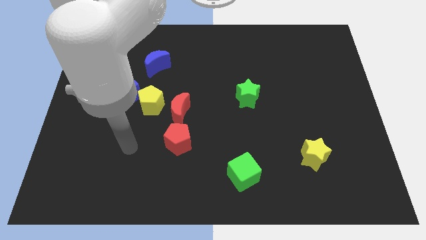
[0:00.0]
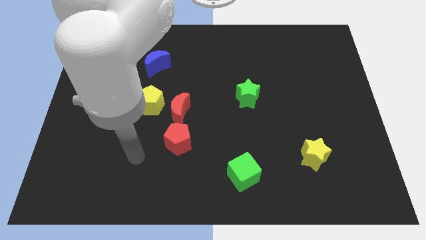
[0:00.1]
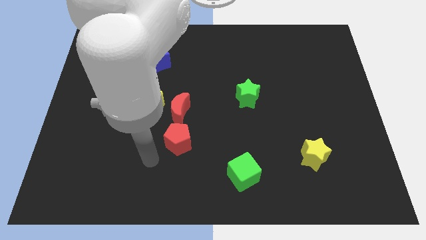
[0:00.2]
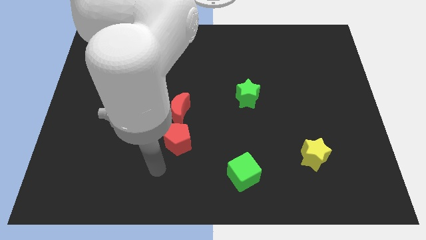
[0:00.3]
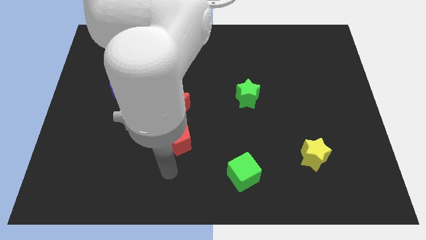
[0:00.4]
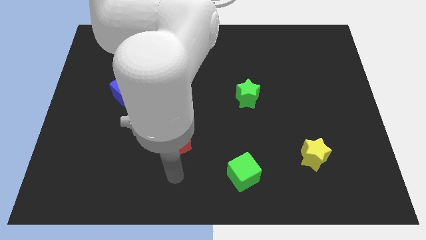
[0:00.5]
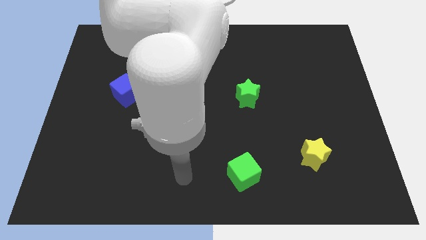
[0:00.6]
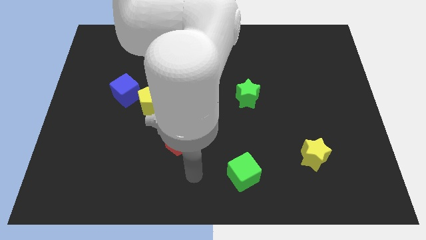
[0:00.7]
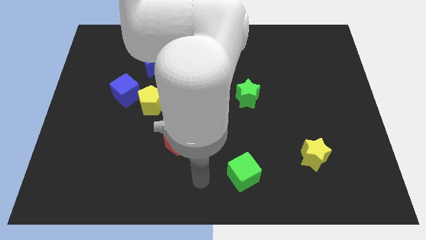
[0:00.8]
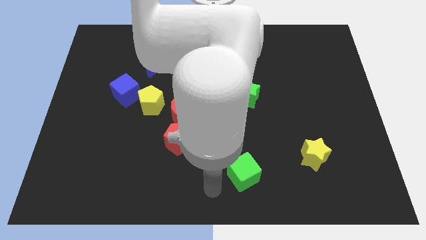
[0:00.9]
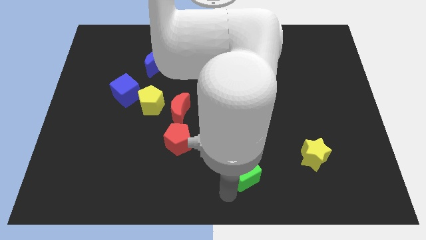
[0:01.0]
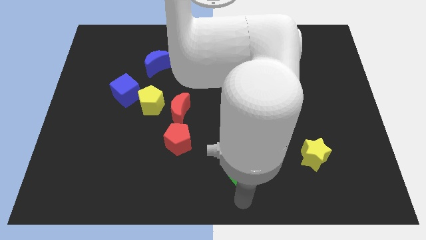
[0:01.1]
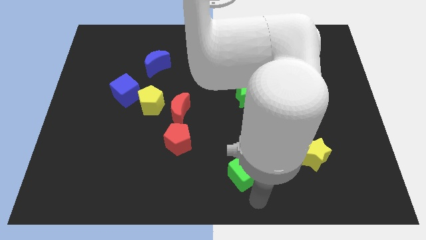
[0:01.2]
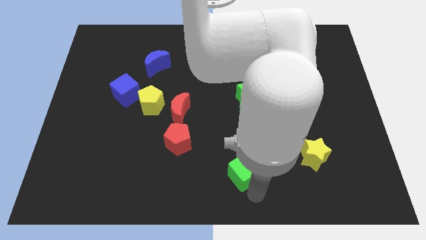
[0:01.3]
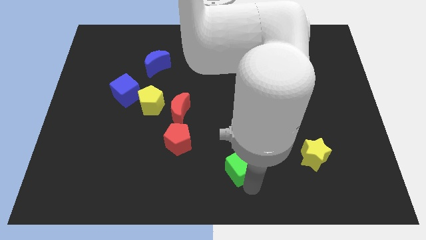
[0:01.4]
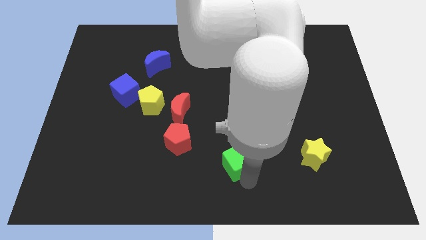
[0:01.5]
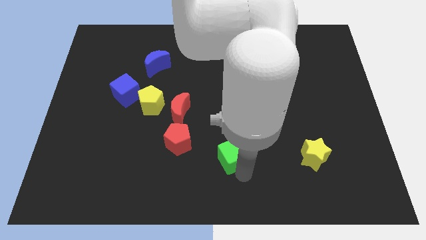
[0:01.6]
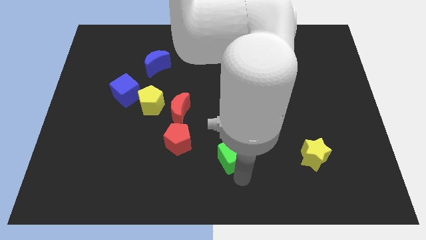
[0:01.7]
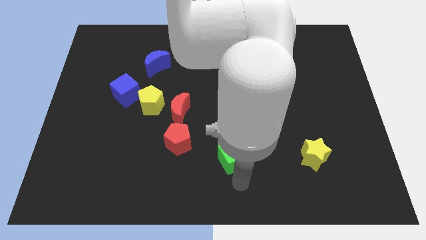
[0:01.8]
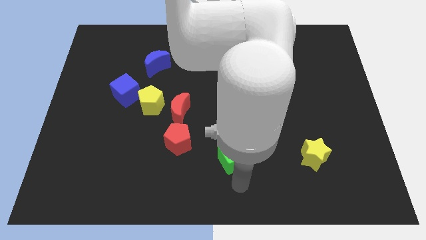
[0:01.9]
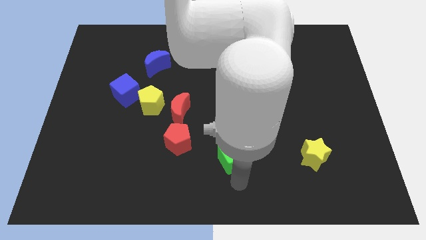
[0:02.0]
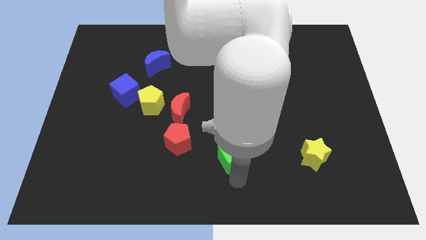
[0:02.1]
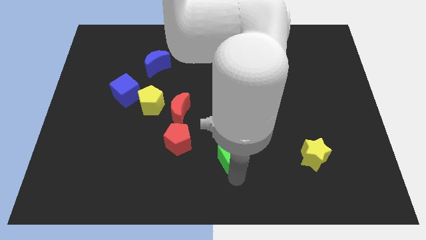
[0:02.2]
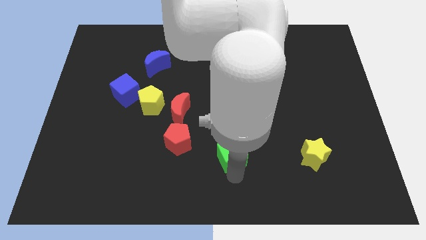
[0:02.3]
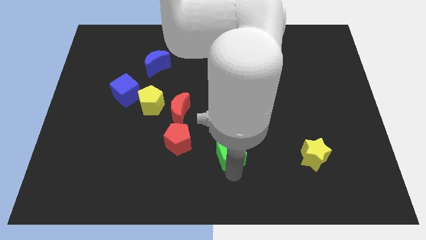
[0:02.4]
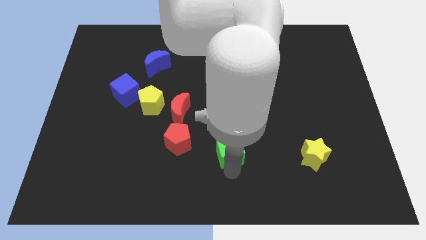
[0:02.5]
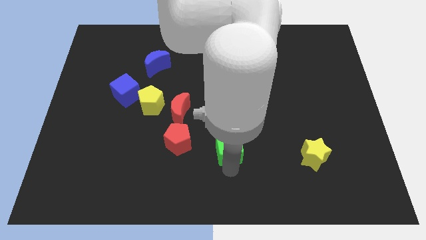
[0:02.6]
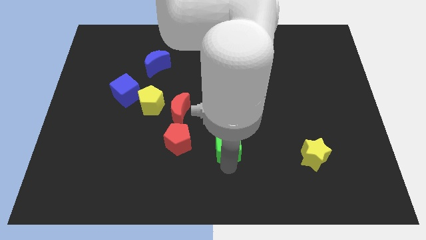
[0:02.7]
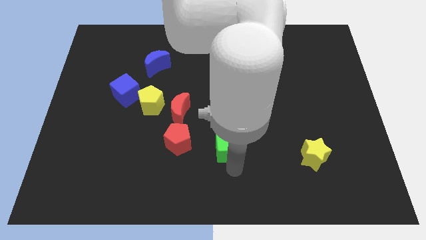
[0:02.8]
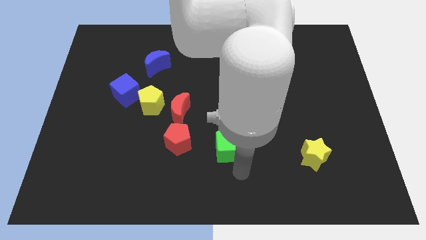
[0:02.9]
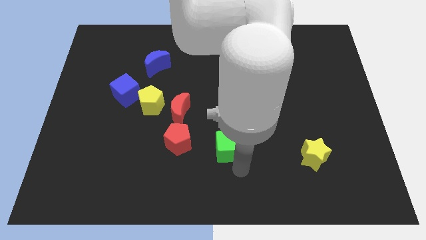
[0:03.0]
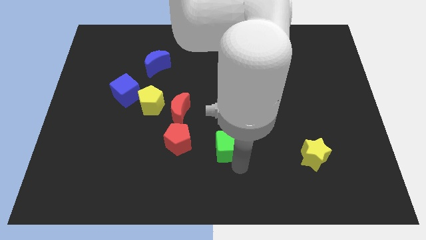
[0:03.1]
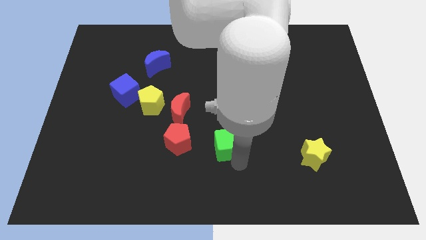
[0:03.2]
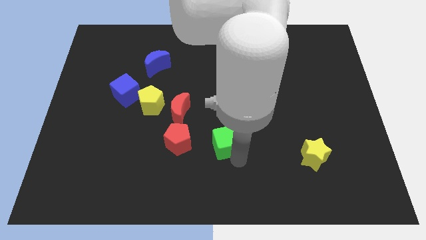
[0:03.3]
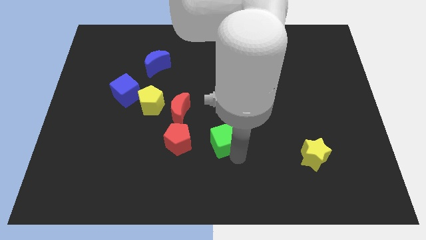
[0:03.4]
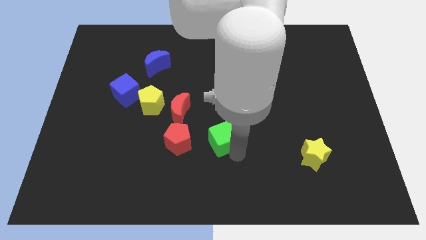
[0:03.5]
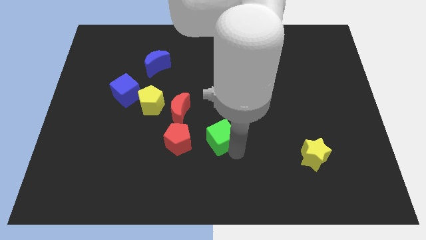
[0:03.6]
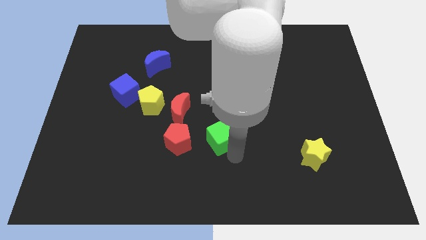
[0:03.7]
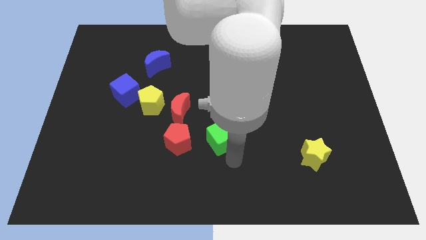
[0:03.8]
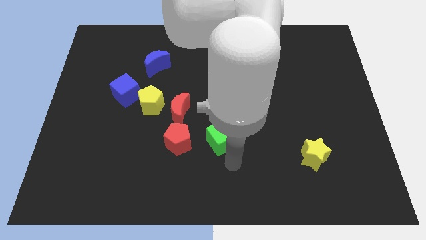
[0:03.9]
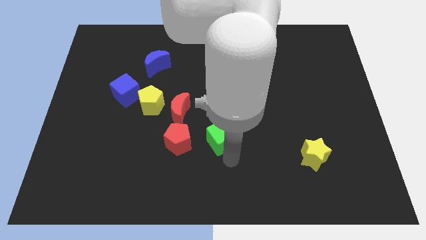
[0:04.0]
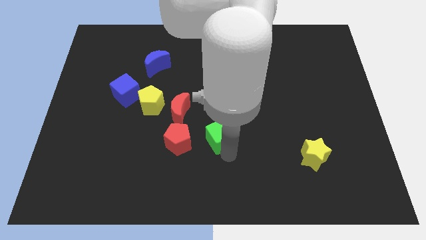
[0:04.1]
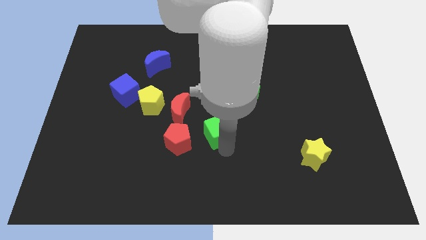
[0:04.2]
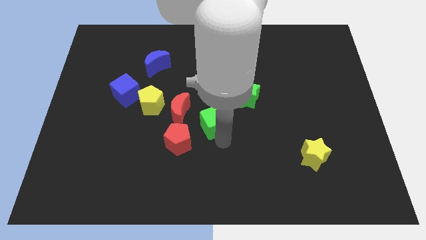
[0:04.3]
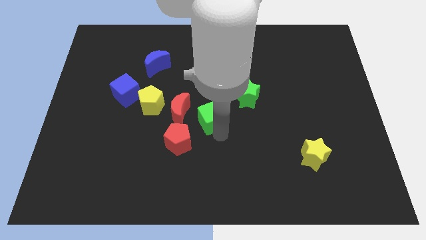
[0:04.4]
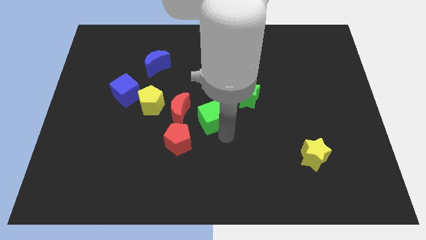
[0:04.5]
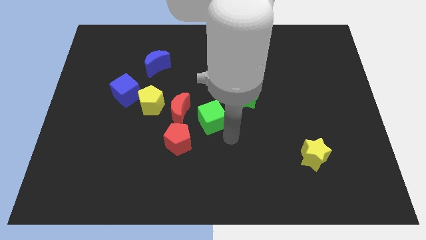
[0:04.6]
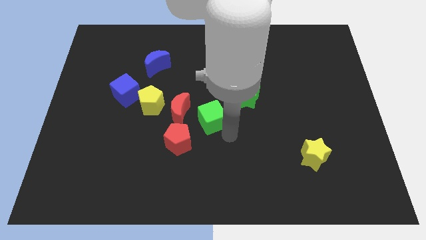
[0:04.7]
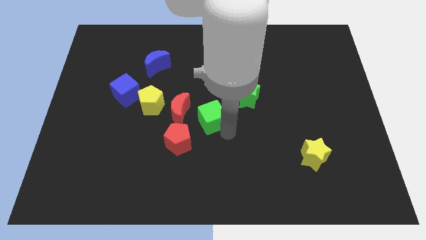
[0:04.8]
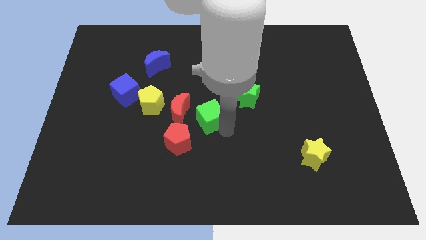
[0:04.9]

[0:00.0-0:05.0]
put the green cube just right of the yellow pentagon

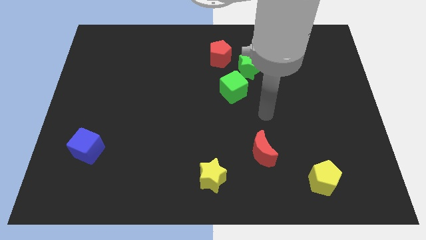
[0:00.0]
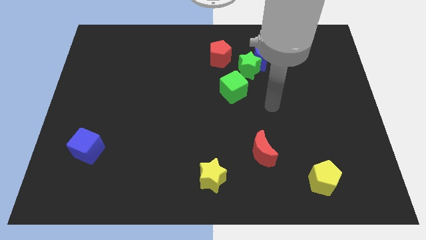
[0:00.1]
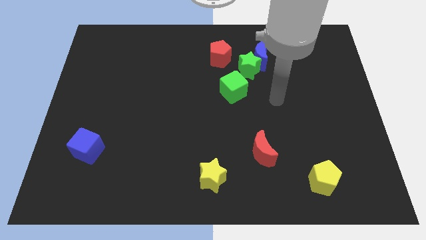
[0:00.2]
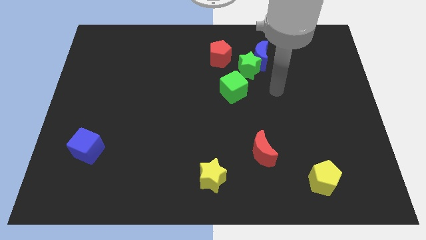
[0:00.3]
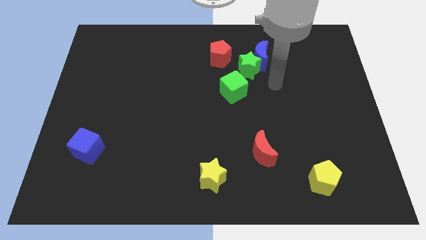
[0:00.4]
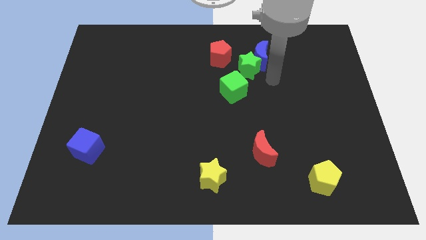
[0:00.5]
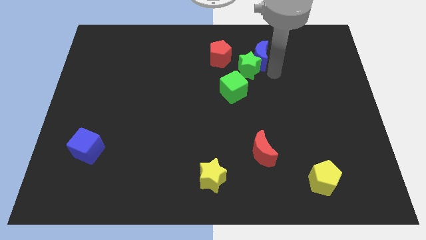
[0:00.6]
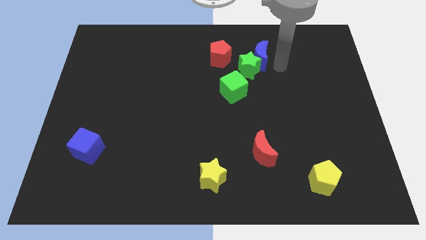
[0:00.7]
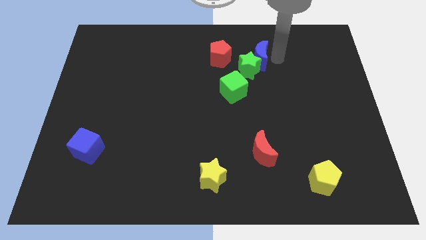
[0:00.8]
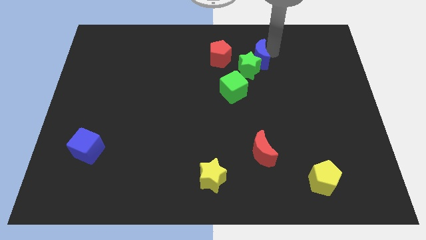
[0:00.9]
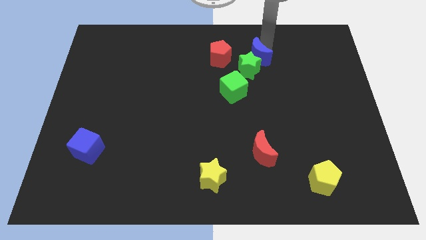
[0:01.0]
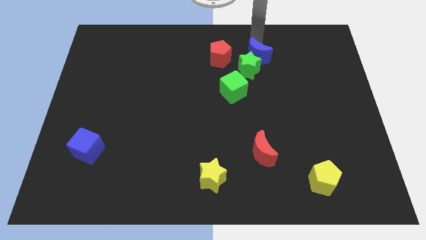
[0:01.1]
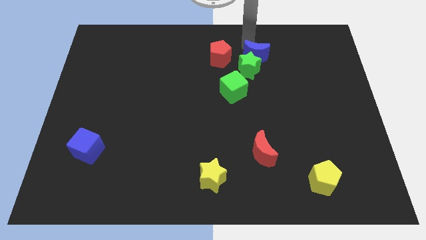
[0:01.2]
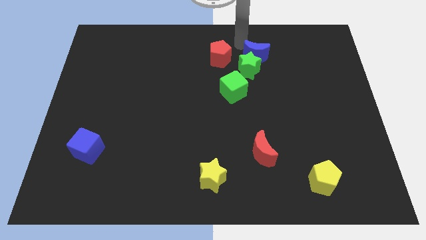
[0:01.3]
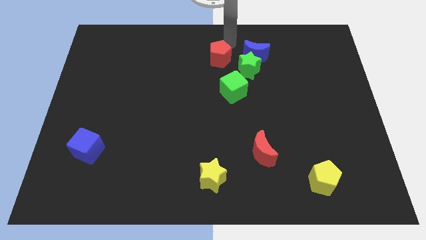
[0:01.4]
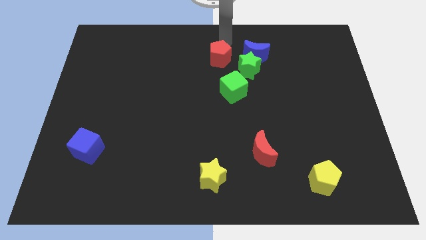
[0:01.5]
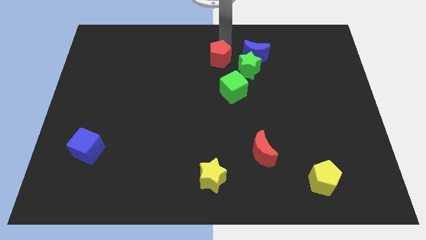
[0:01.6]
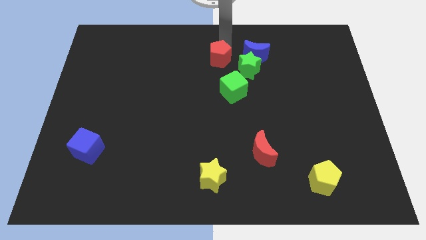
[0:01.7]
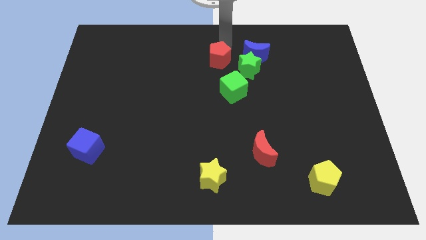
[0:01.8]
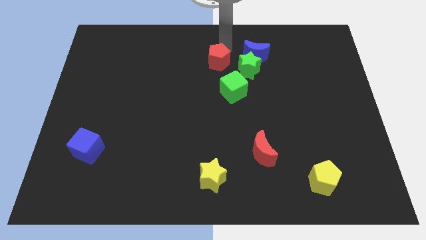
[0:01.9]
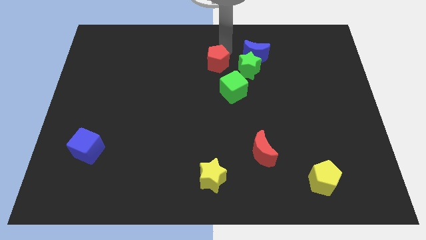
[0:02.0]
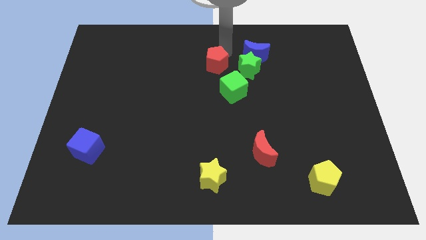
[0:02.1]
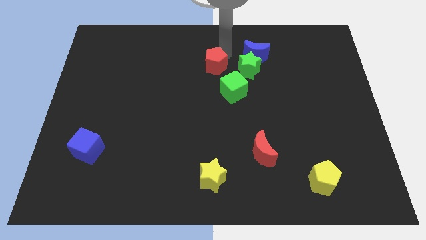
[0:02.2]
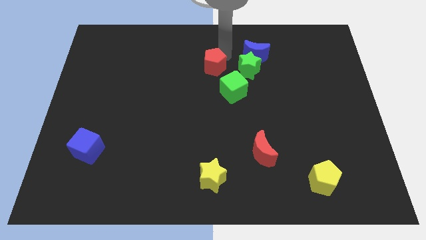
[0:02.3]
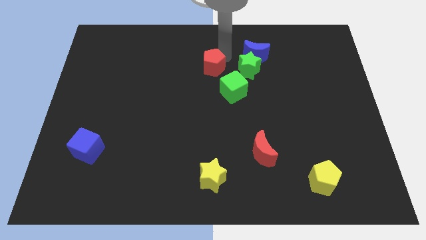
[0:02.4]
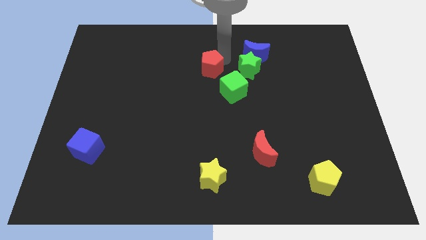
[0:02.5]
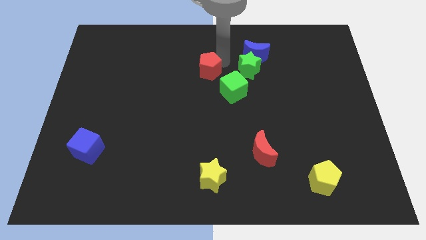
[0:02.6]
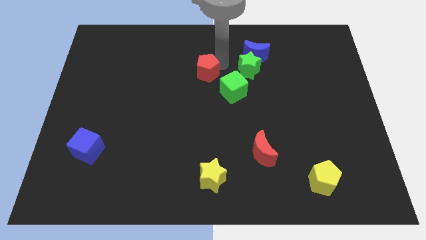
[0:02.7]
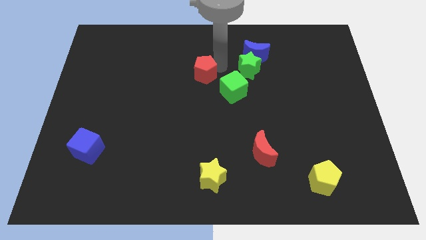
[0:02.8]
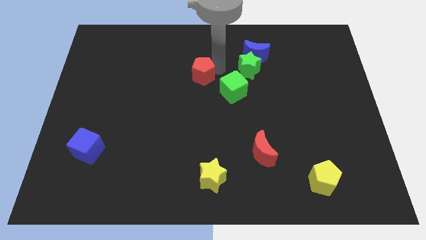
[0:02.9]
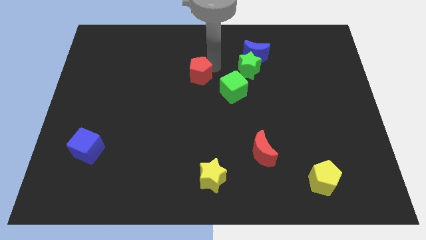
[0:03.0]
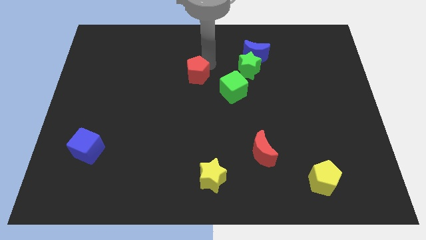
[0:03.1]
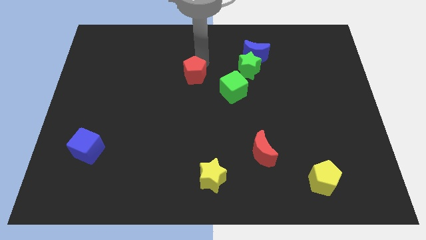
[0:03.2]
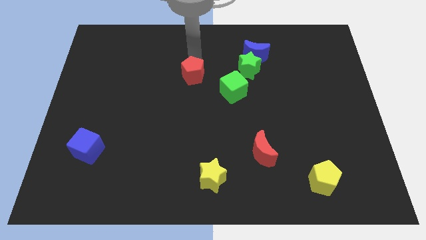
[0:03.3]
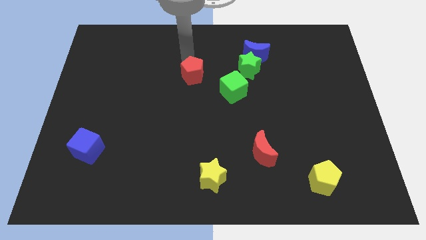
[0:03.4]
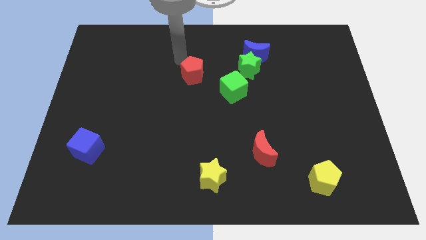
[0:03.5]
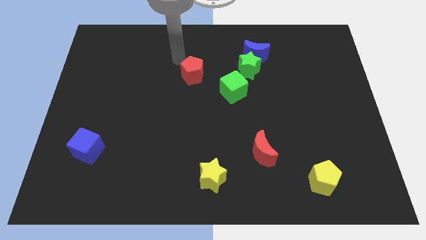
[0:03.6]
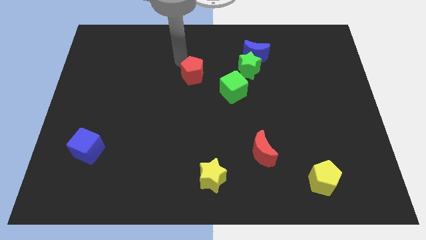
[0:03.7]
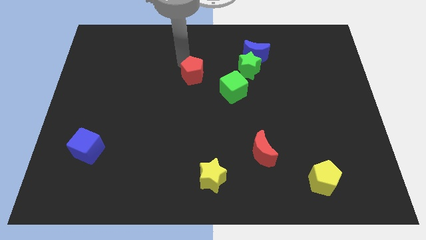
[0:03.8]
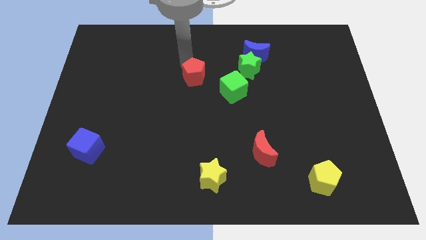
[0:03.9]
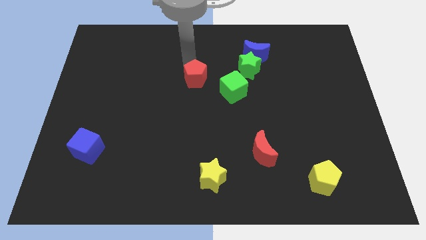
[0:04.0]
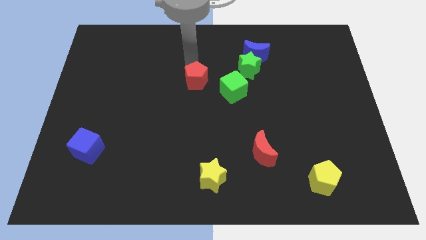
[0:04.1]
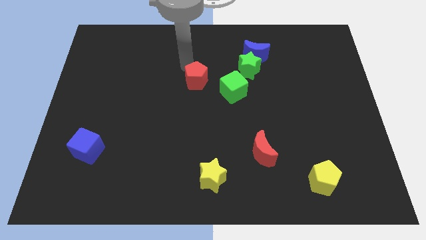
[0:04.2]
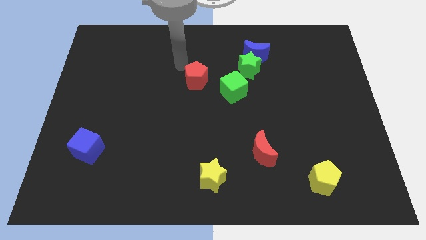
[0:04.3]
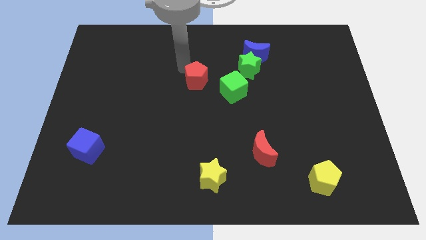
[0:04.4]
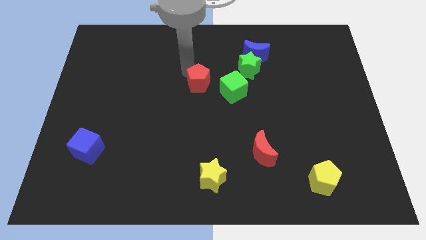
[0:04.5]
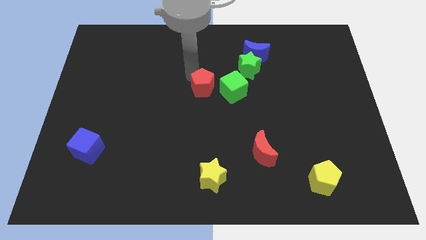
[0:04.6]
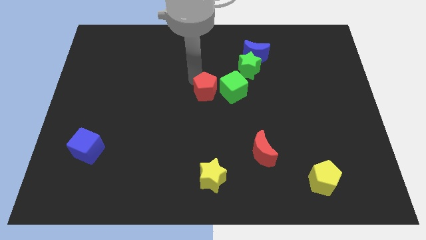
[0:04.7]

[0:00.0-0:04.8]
put the red pentagon to the bottom left side of the green cube
